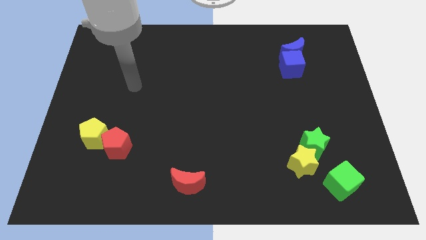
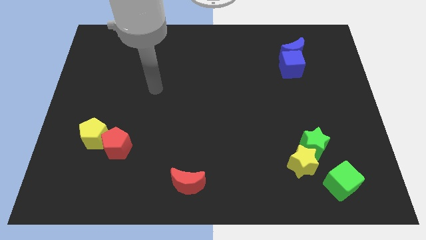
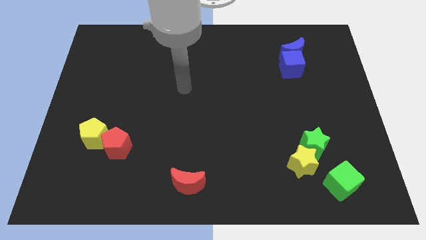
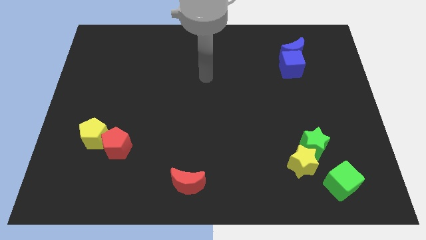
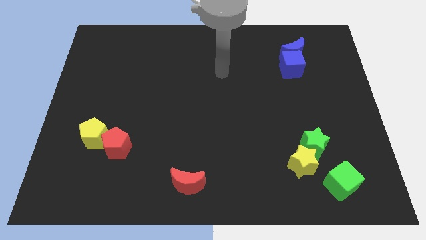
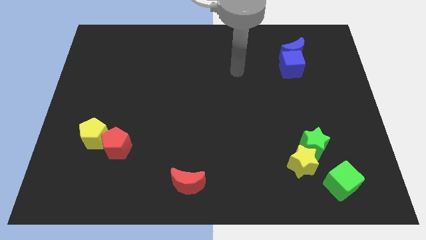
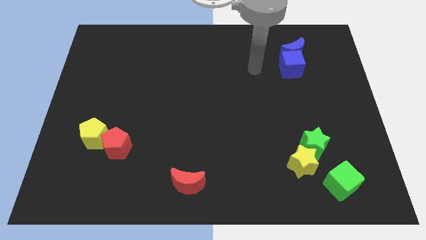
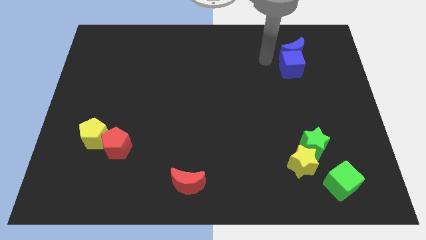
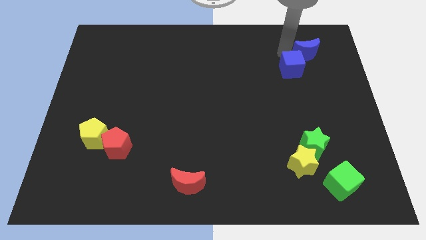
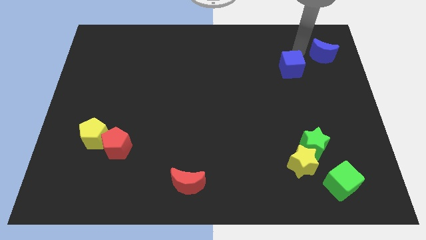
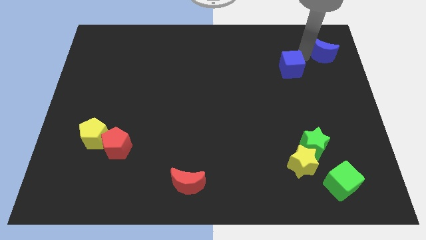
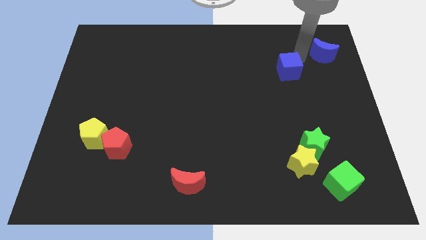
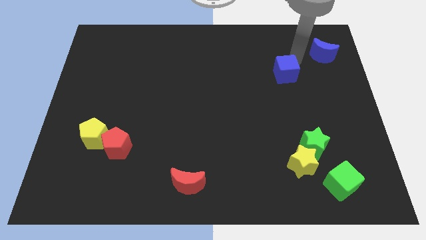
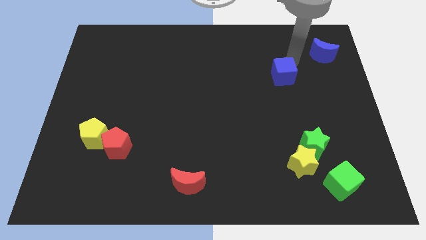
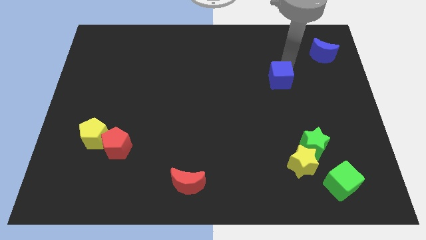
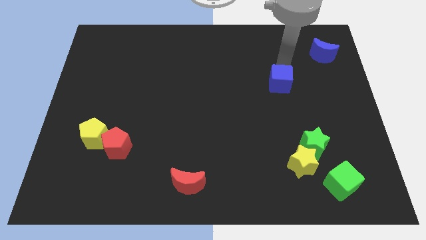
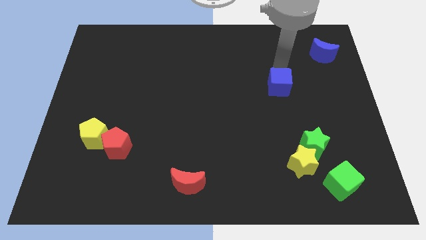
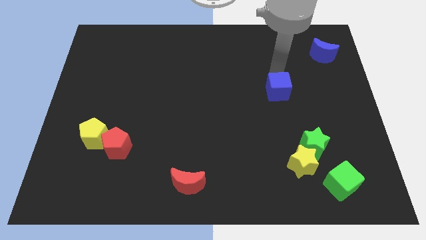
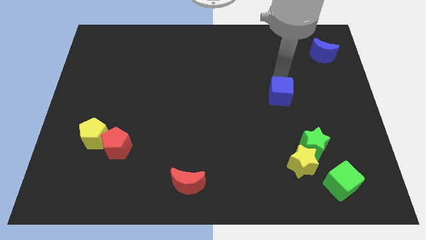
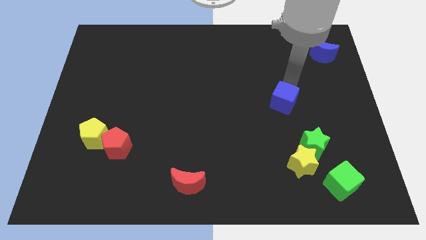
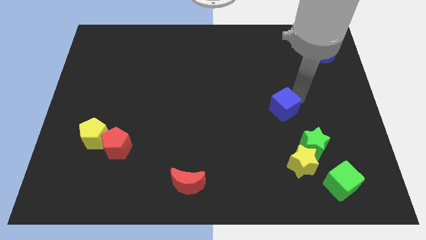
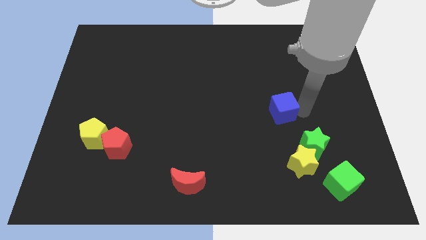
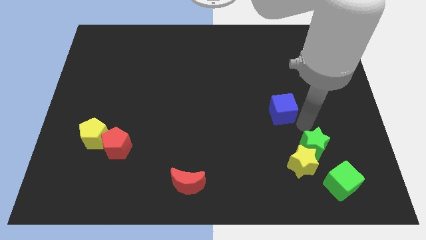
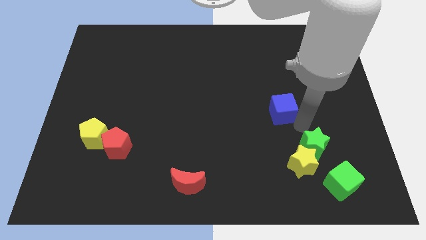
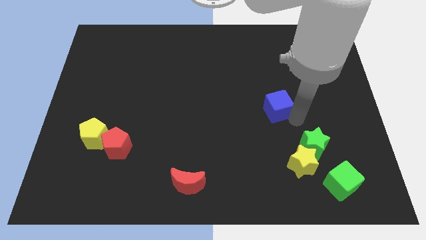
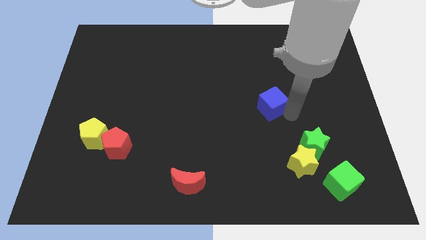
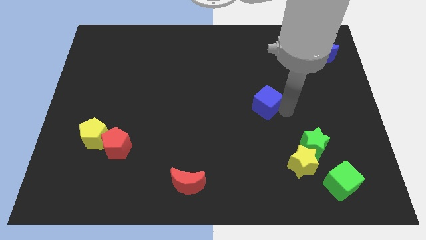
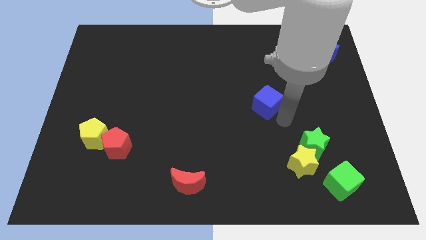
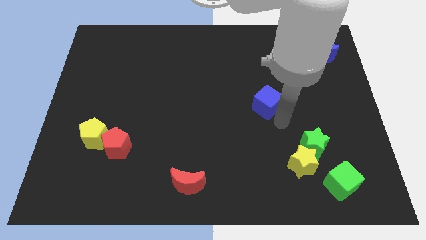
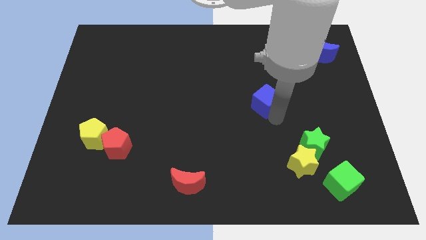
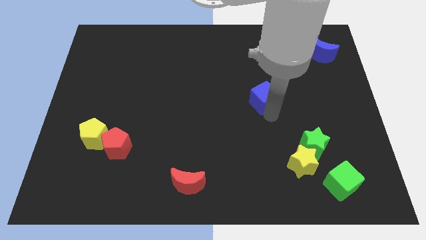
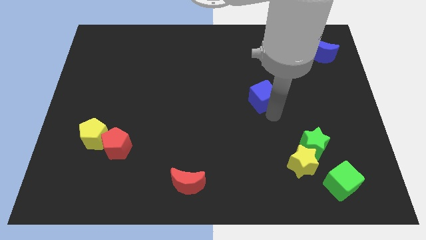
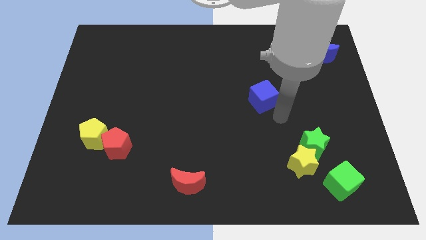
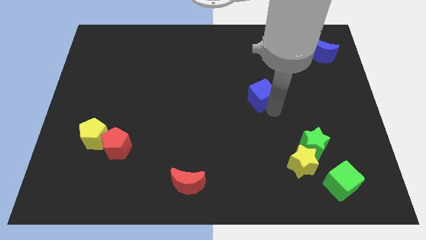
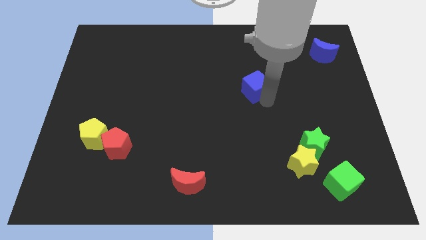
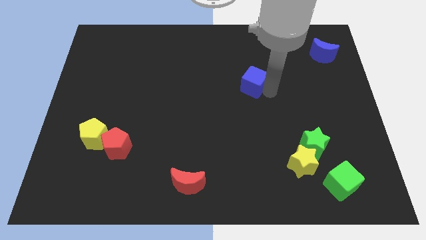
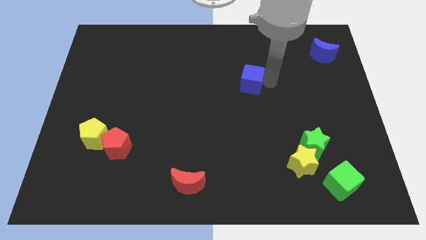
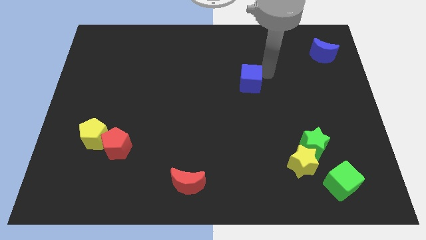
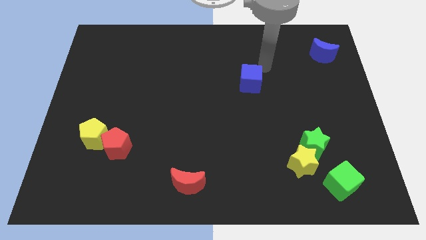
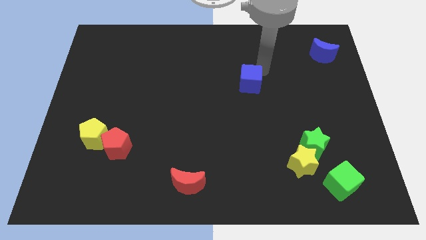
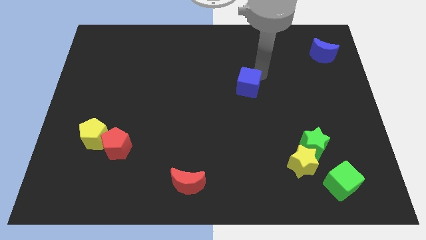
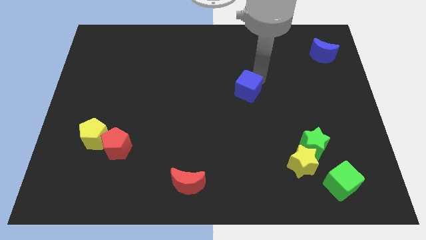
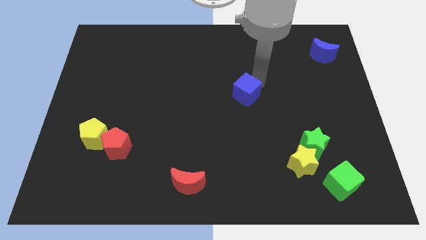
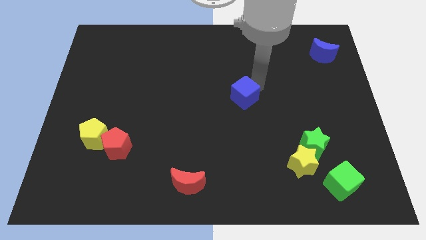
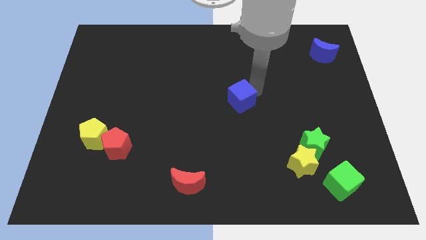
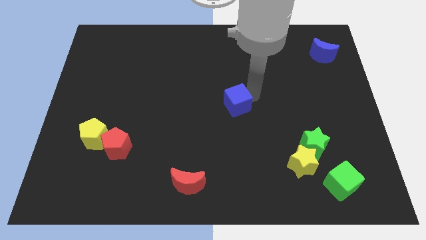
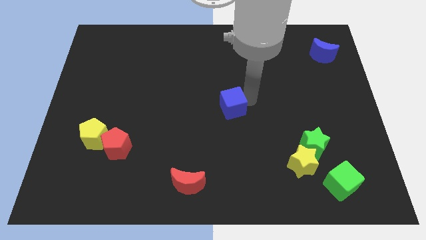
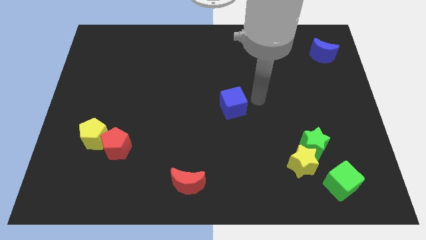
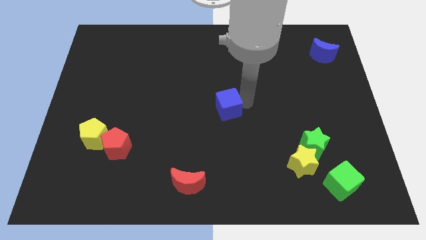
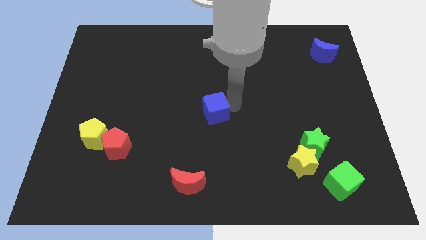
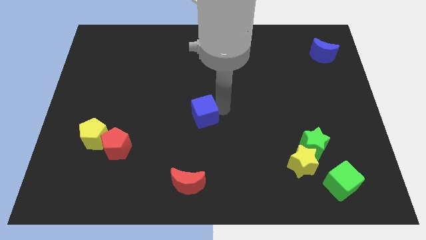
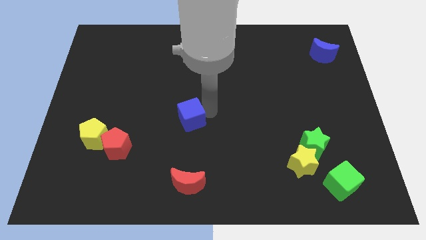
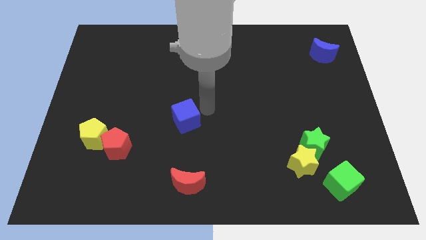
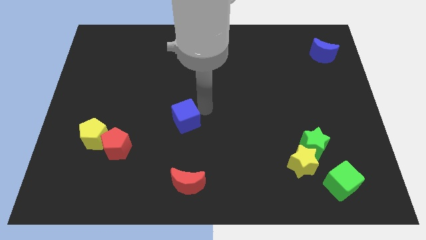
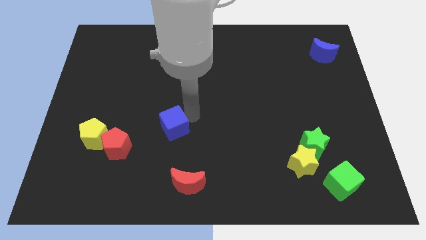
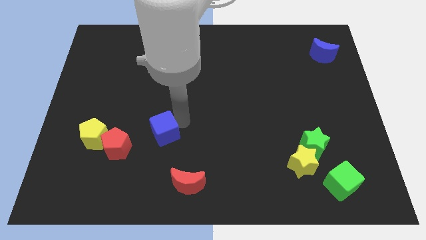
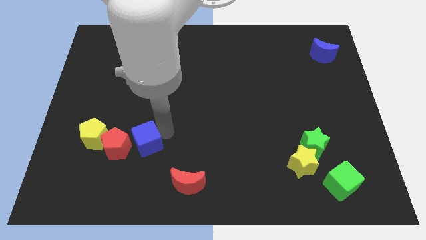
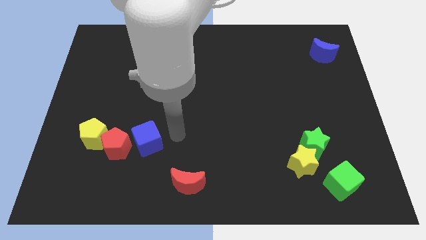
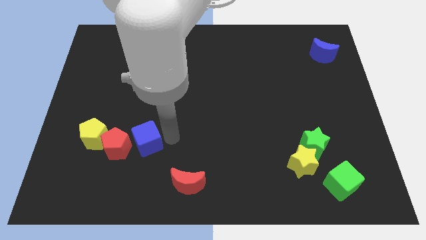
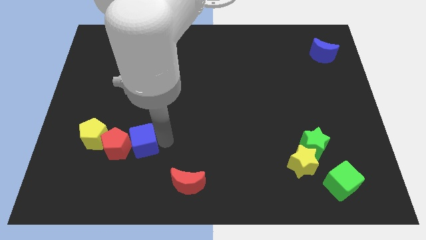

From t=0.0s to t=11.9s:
slide the blue cube to the red pentagon

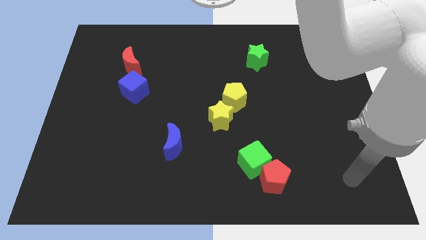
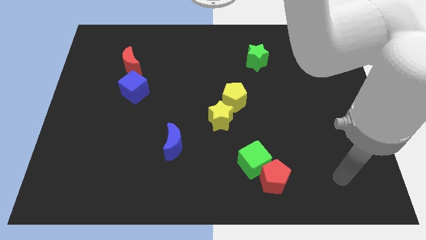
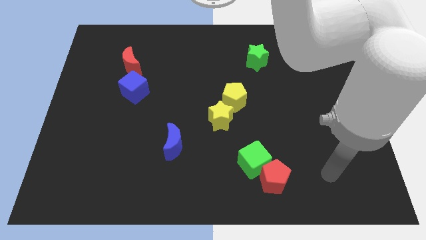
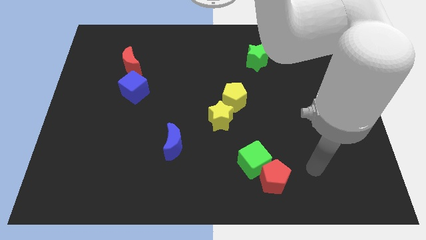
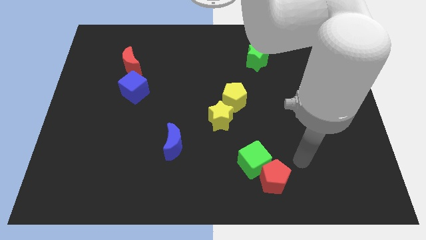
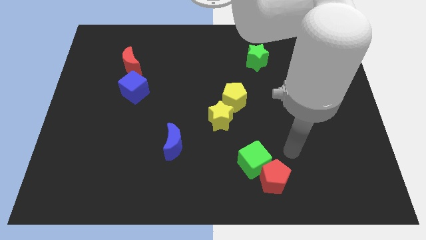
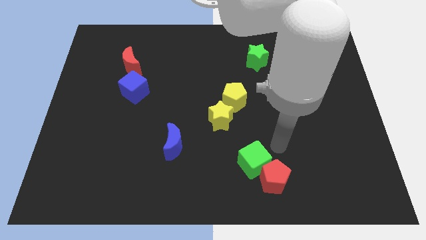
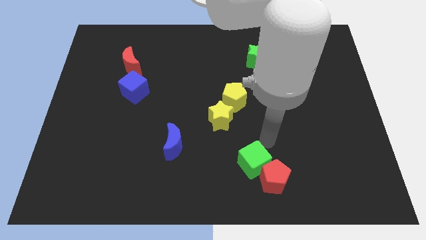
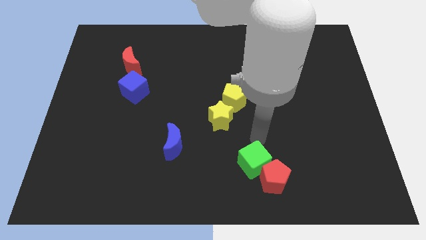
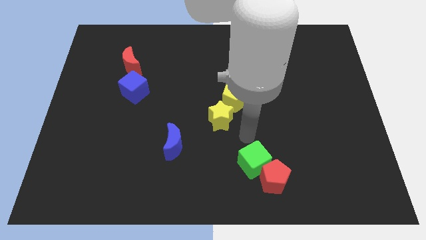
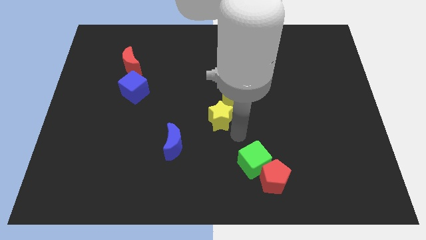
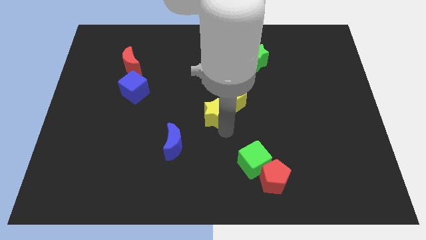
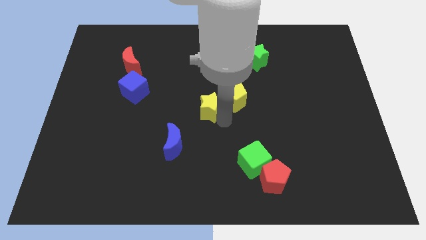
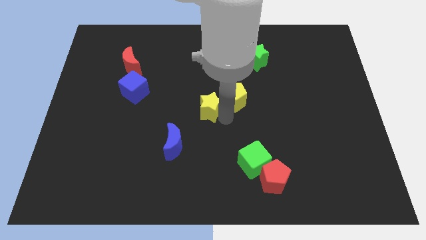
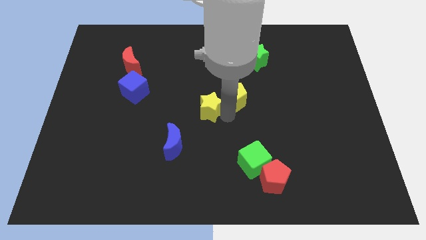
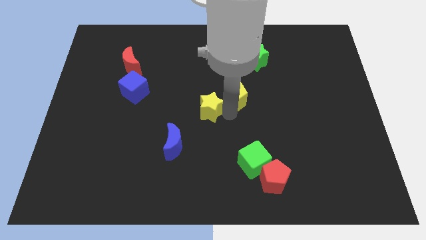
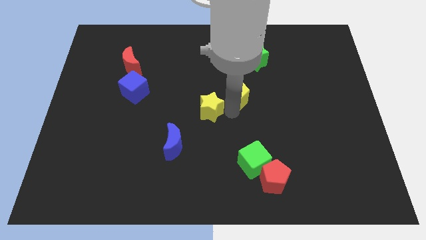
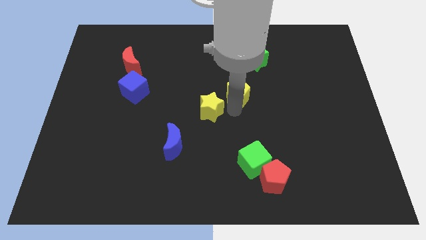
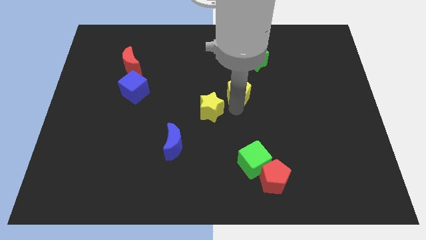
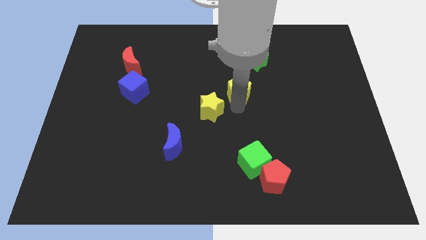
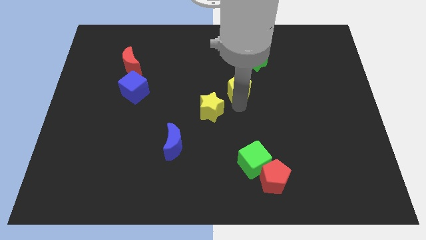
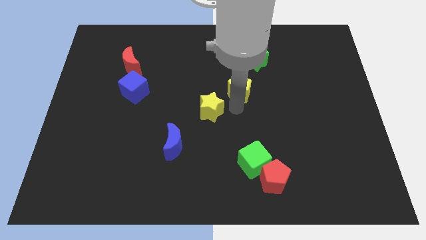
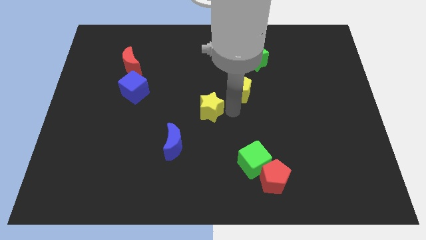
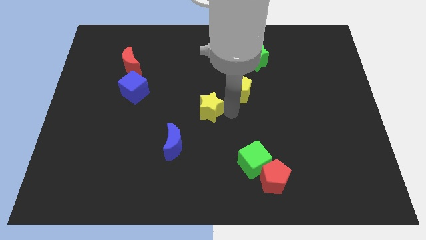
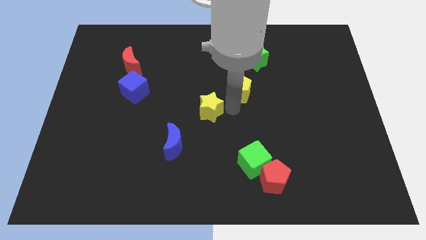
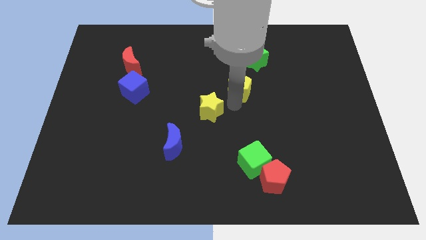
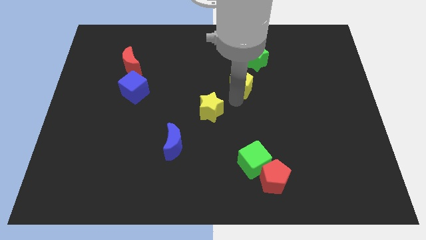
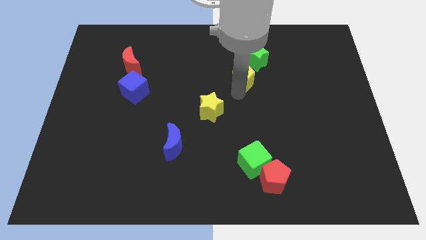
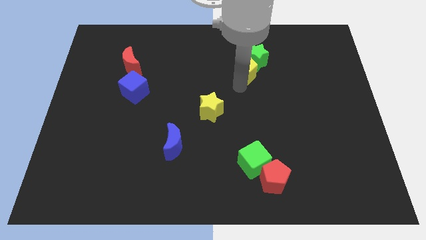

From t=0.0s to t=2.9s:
push the yellow pentagon towards the green star
